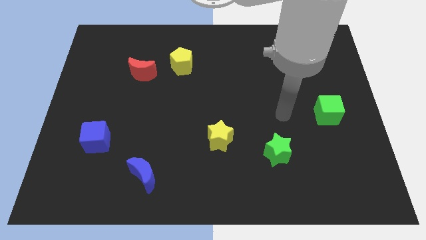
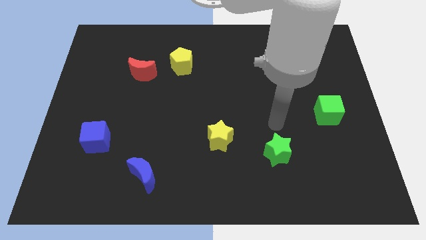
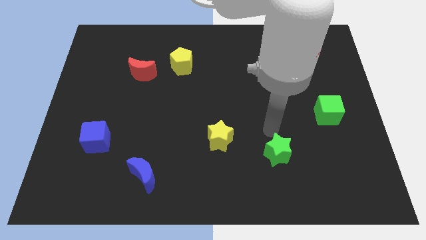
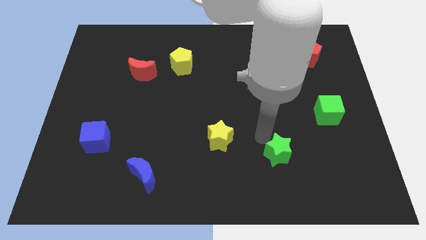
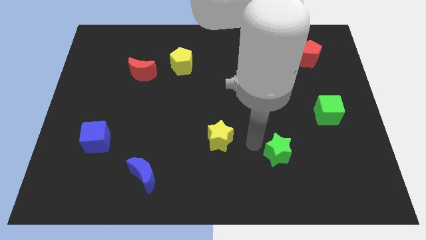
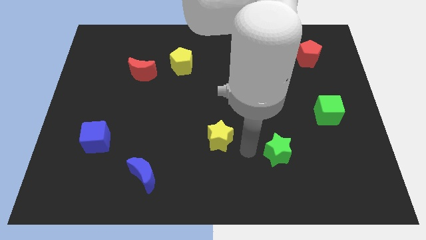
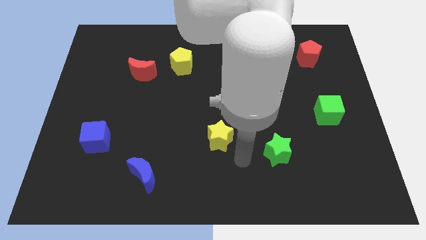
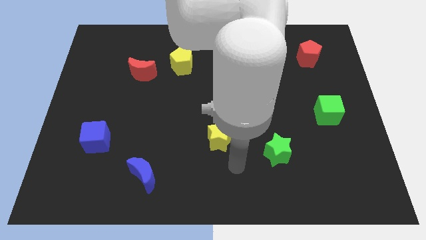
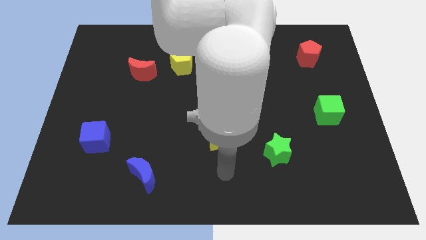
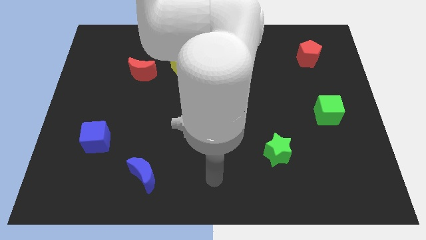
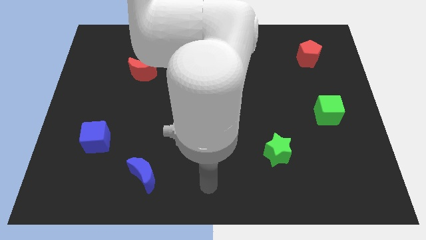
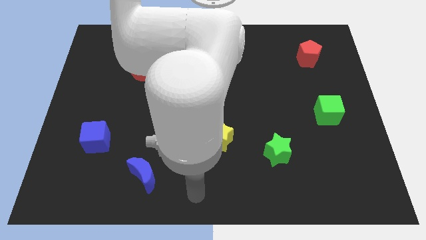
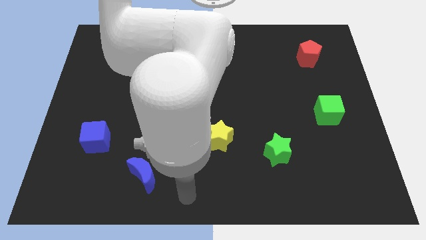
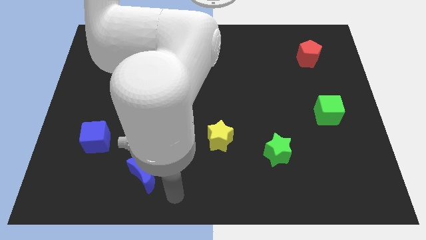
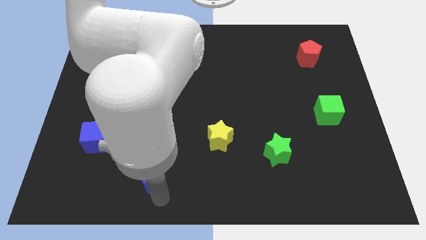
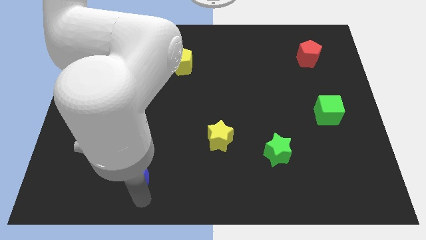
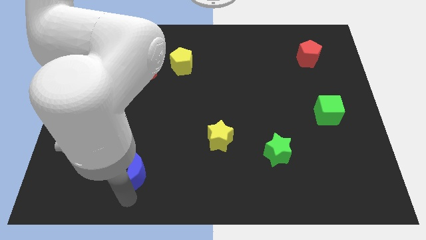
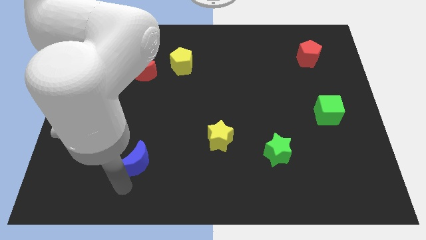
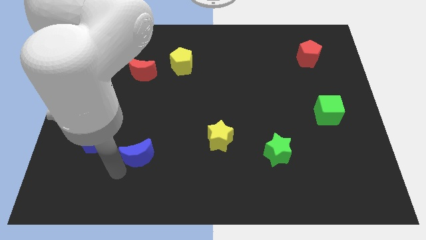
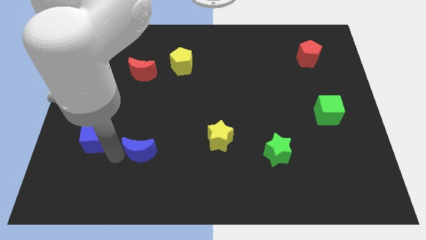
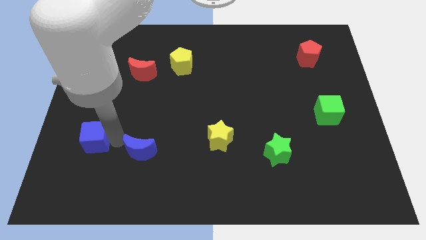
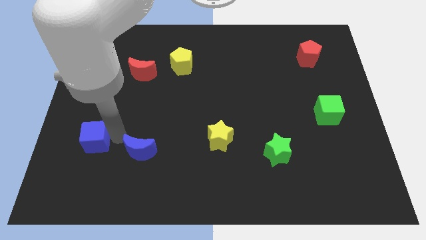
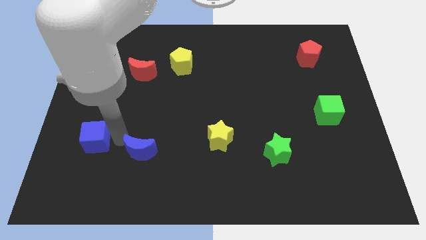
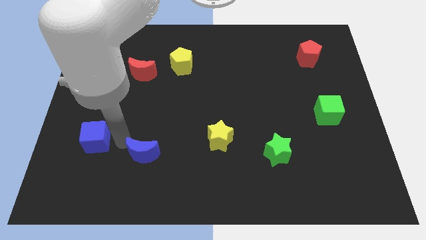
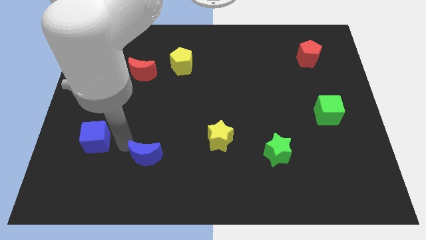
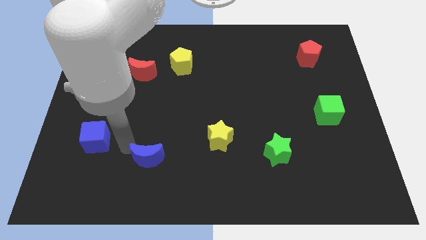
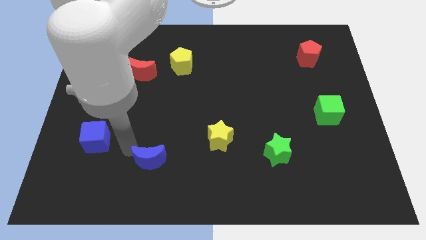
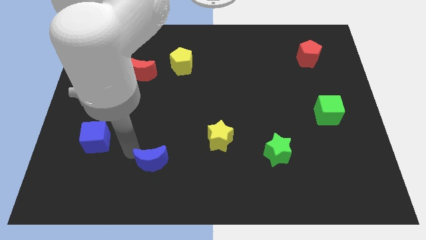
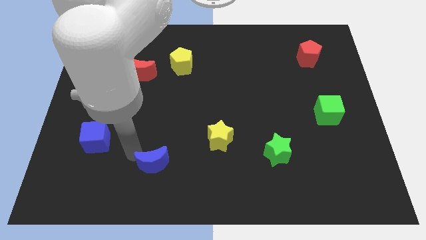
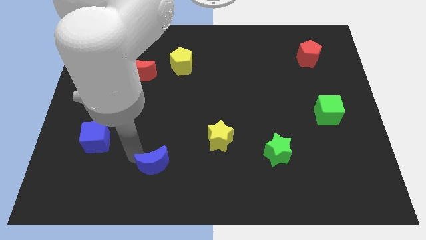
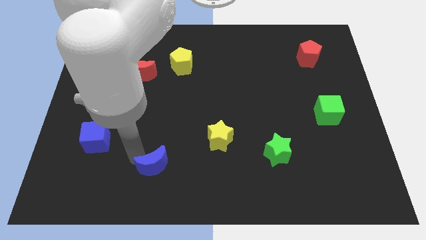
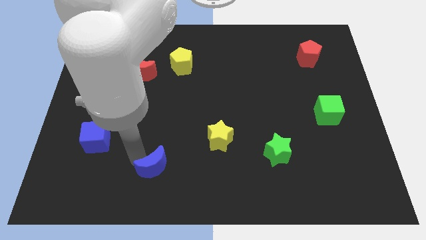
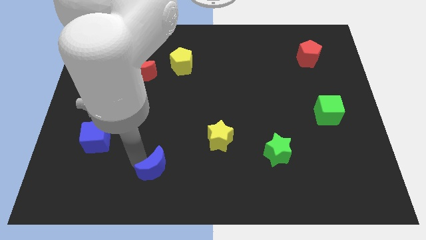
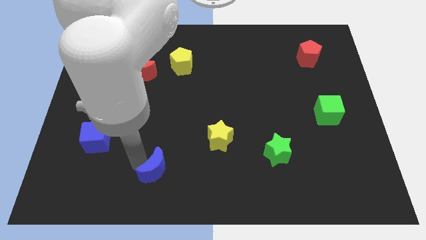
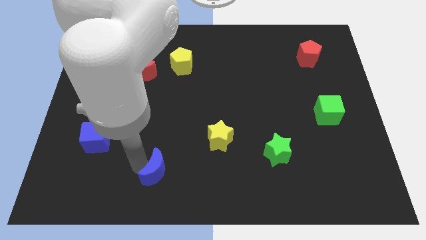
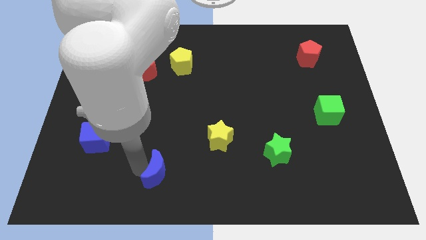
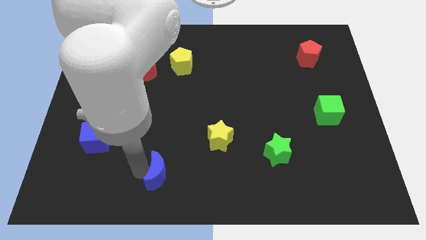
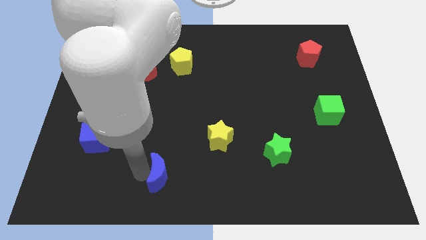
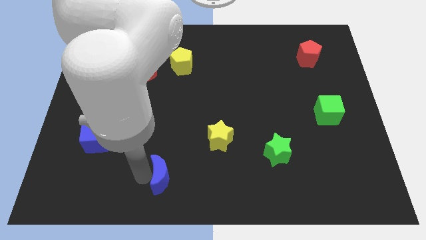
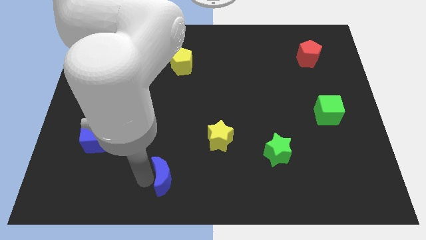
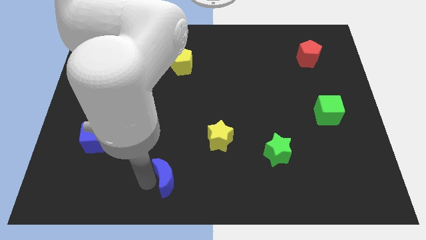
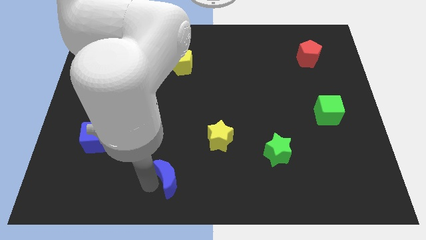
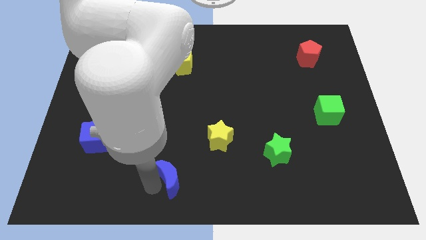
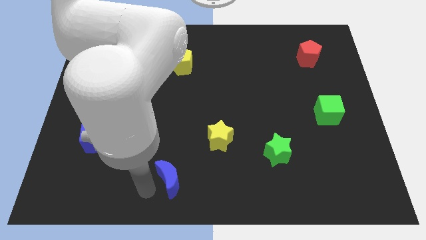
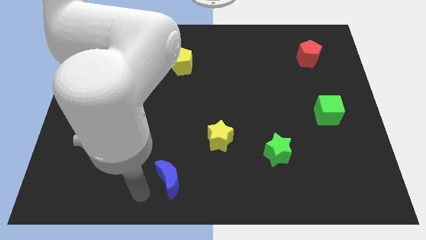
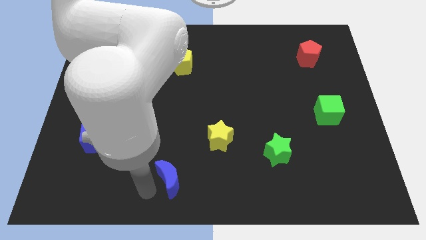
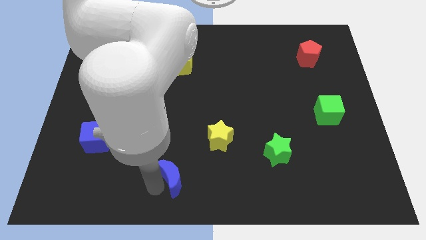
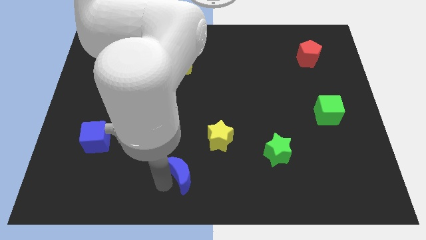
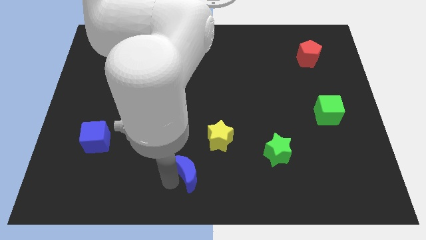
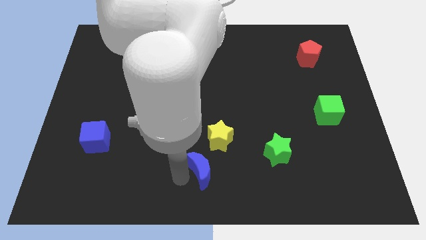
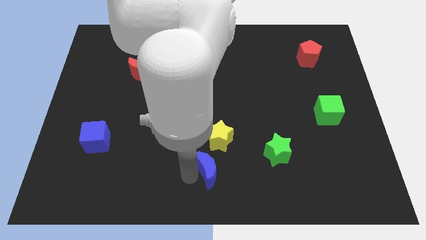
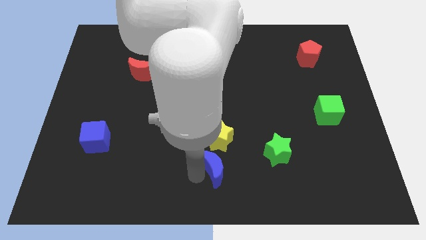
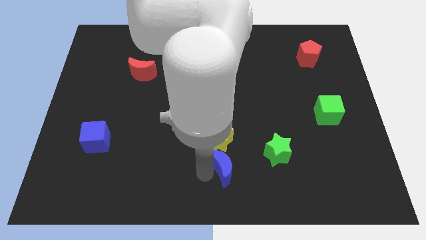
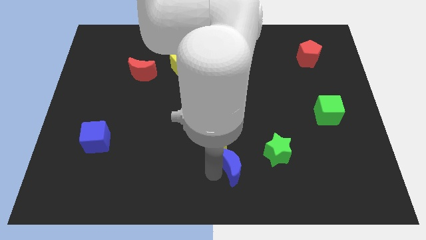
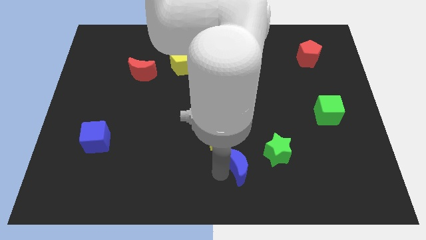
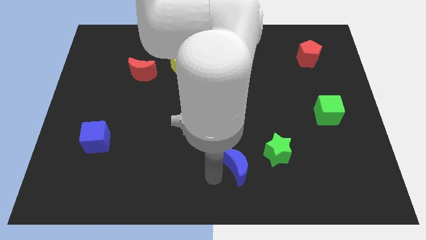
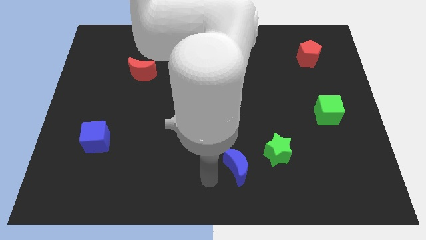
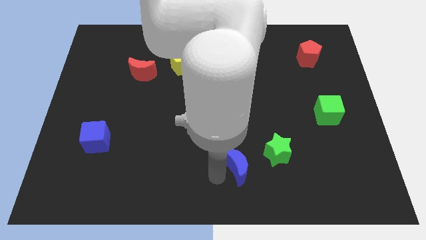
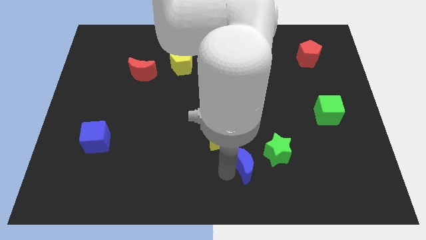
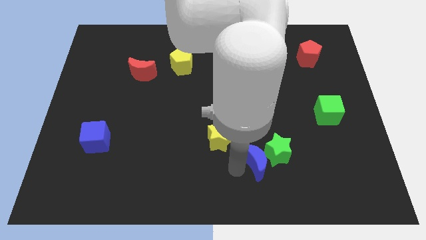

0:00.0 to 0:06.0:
put the blue moon towards the green star

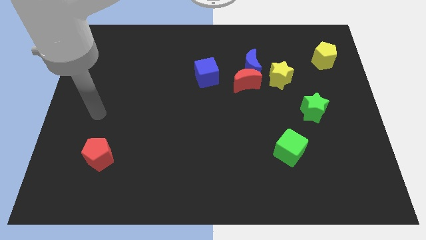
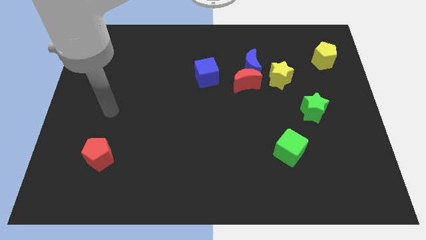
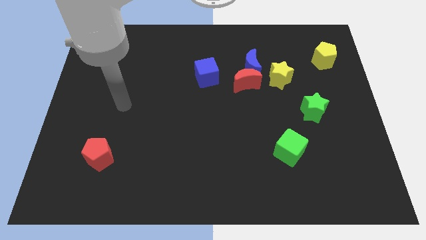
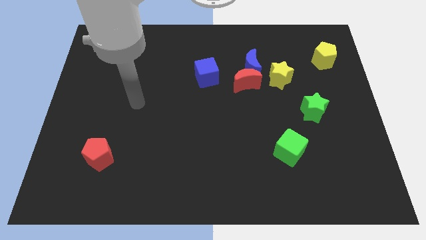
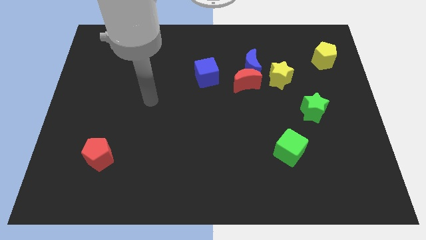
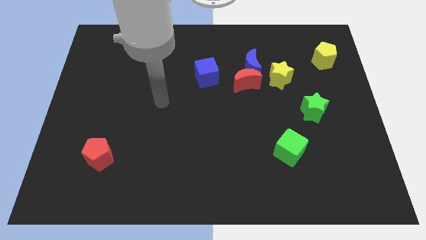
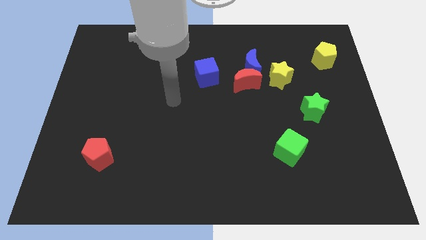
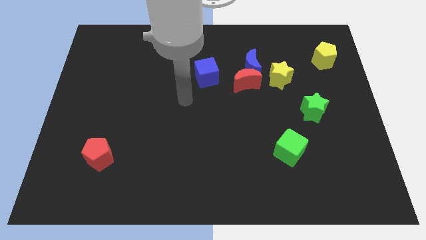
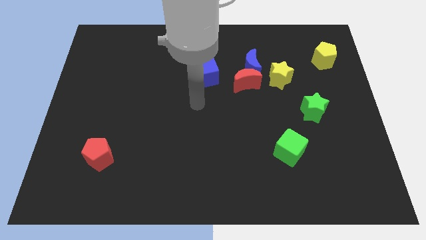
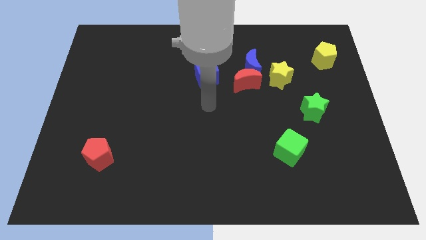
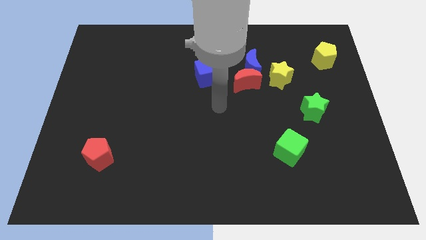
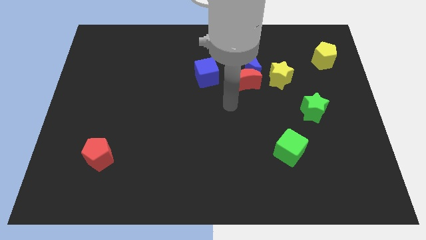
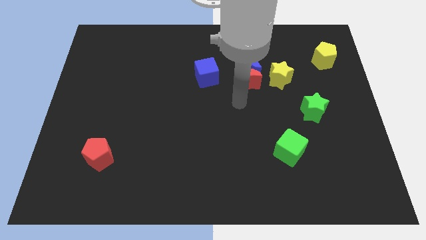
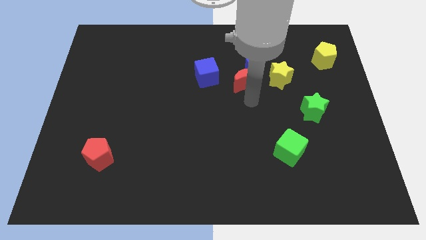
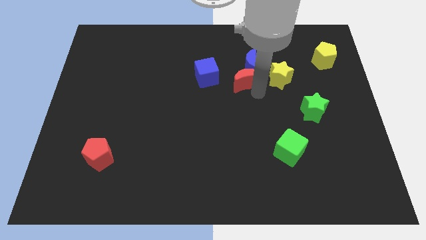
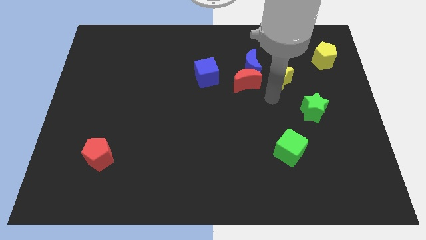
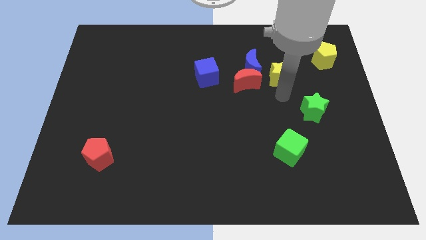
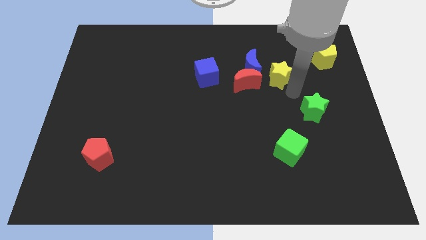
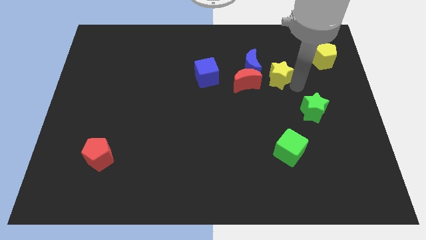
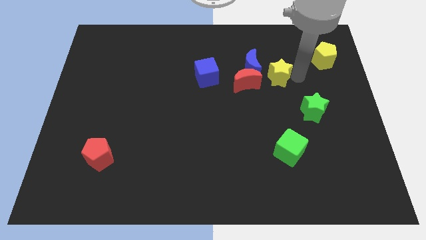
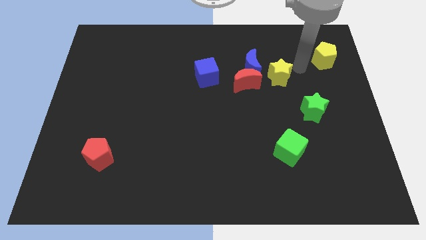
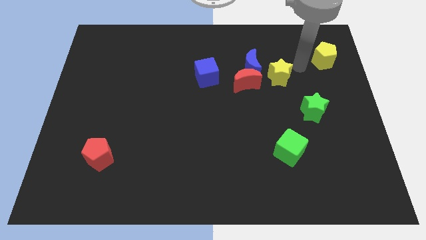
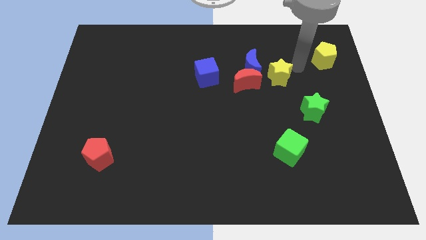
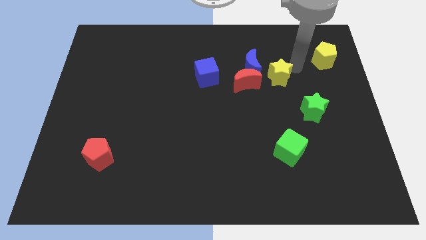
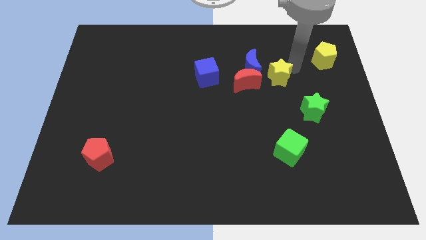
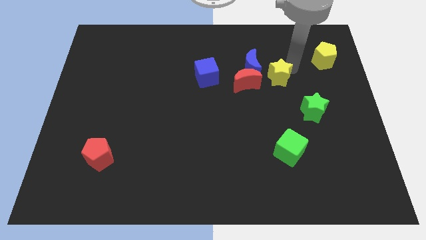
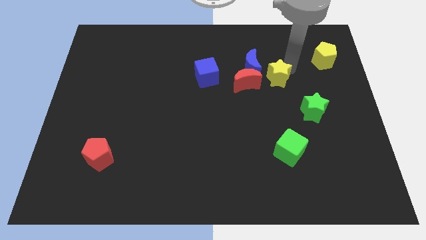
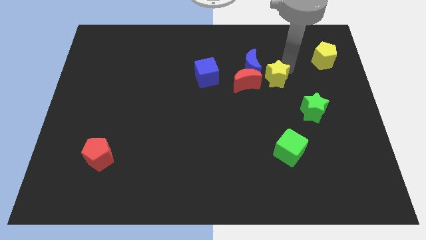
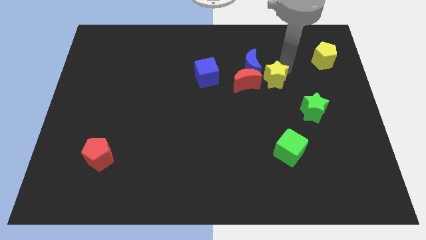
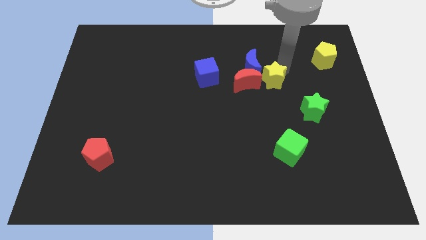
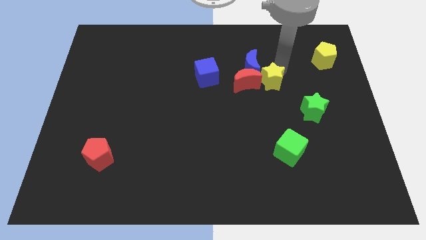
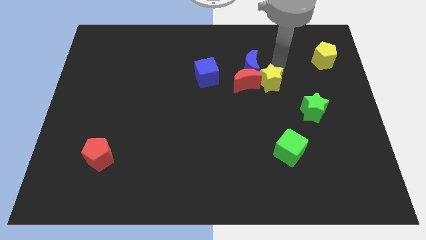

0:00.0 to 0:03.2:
move the yellow star to the red moon
